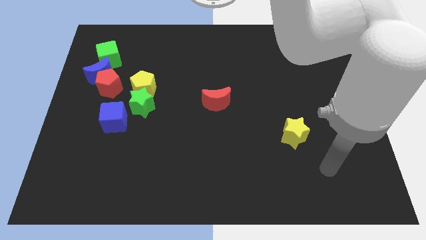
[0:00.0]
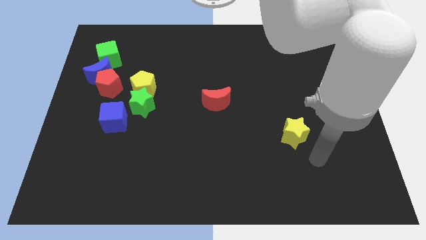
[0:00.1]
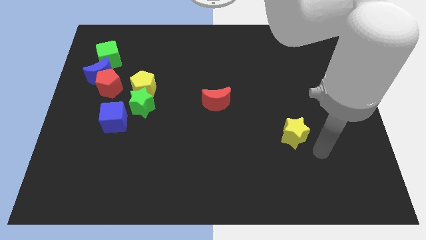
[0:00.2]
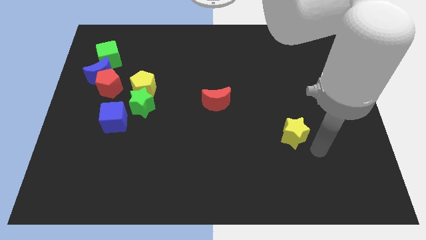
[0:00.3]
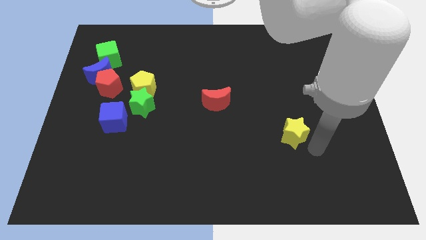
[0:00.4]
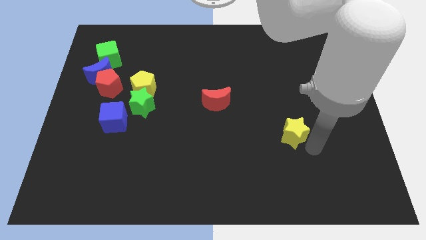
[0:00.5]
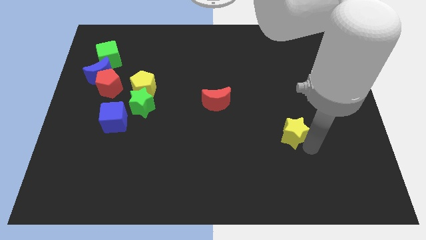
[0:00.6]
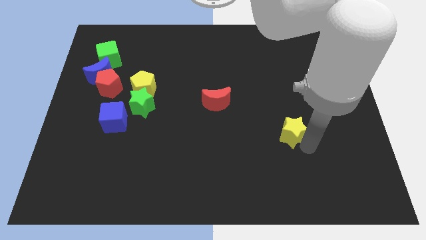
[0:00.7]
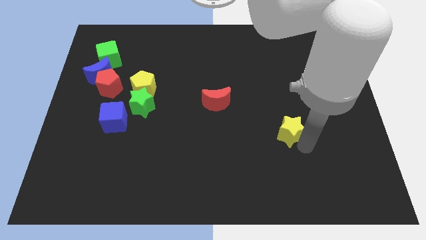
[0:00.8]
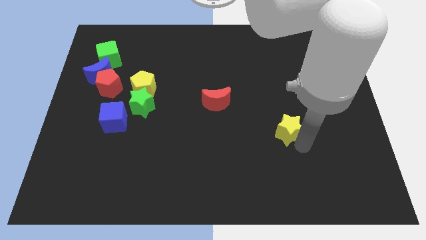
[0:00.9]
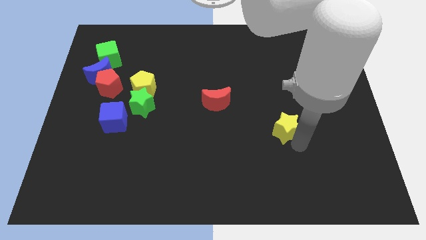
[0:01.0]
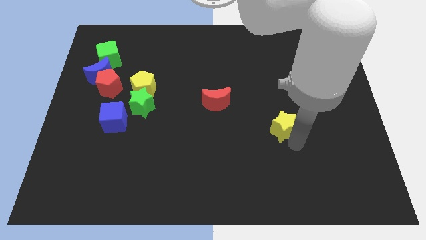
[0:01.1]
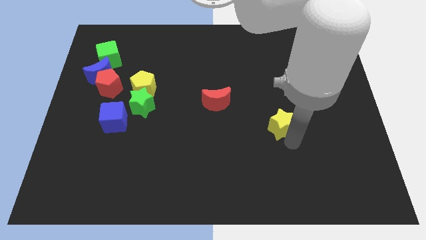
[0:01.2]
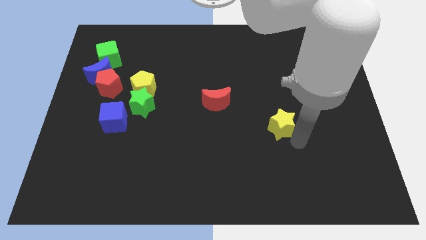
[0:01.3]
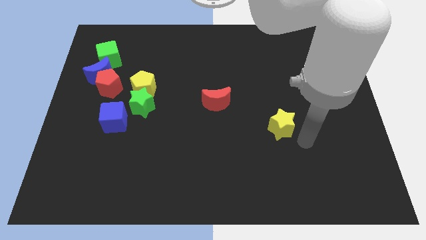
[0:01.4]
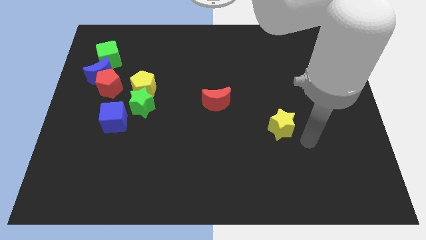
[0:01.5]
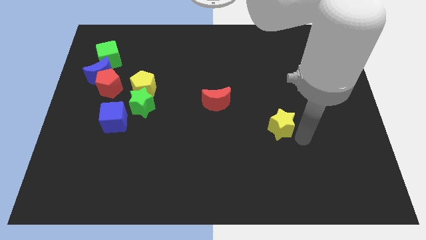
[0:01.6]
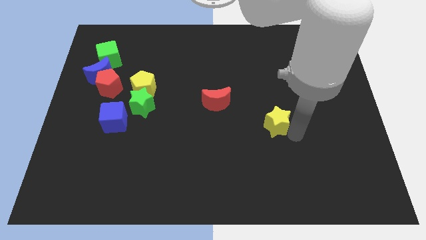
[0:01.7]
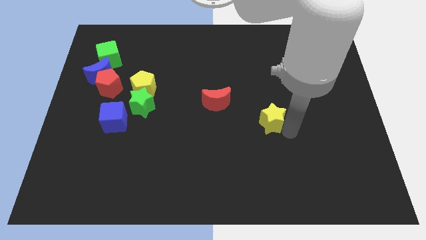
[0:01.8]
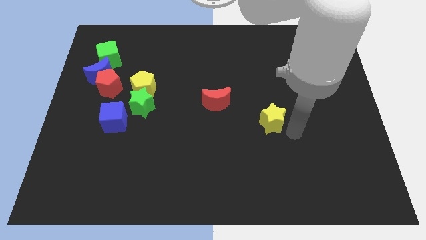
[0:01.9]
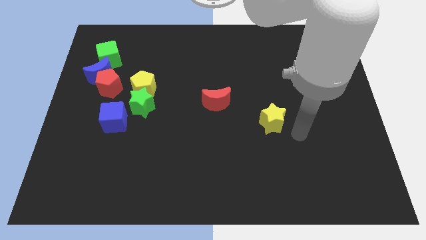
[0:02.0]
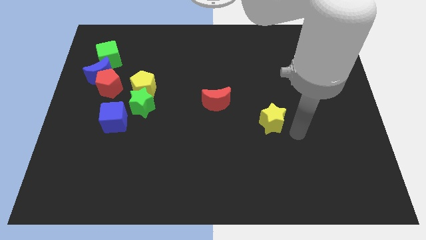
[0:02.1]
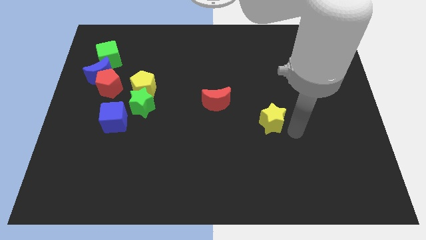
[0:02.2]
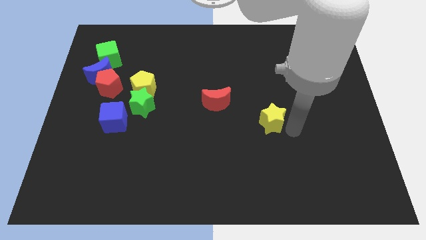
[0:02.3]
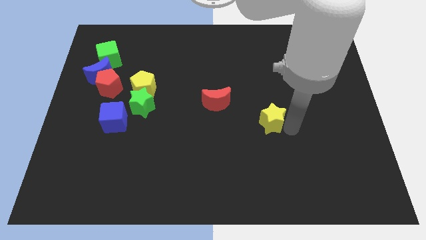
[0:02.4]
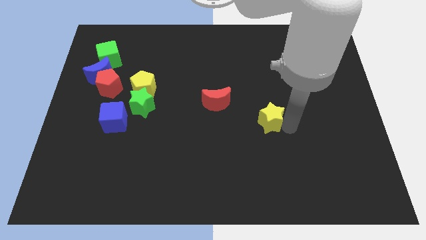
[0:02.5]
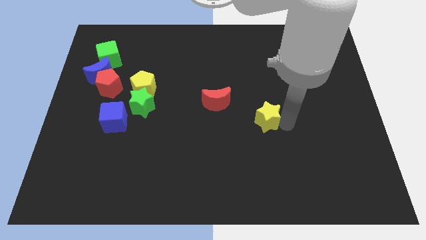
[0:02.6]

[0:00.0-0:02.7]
move the yellow star a little upwards and to the left diagonally

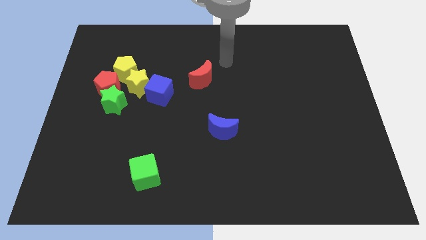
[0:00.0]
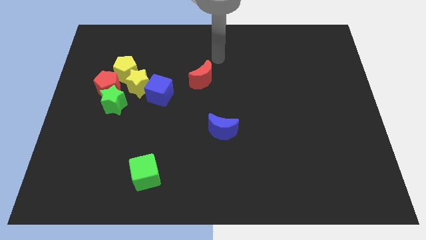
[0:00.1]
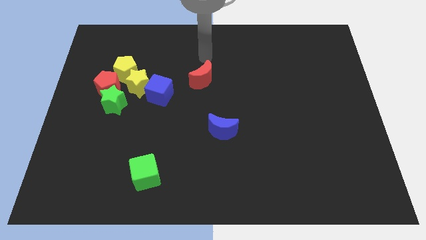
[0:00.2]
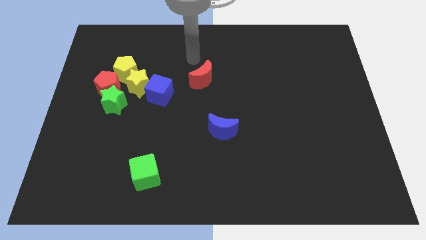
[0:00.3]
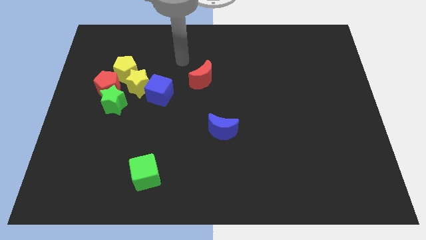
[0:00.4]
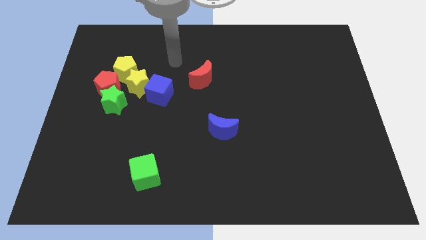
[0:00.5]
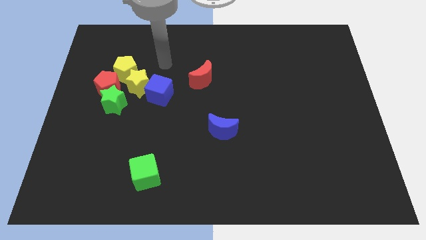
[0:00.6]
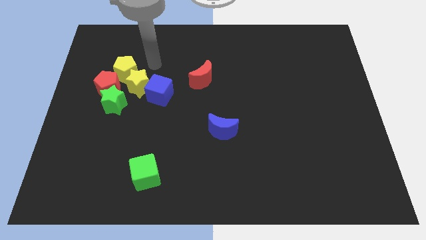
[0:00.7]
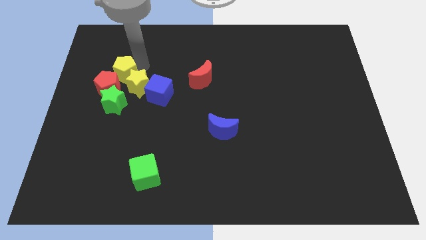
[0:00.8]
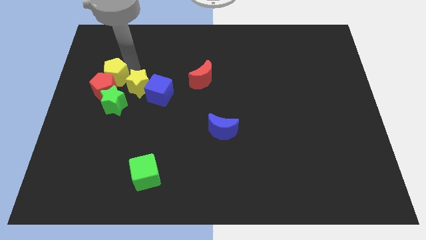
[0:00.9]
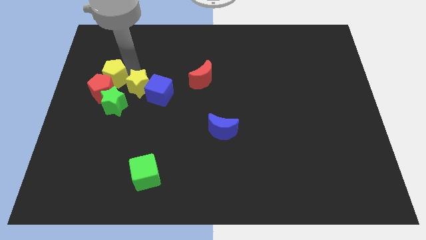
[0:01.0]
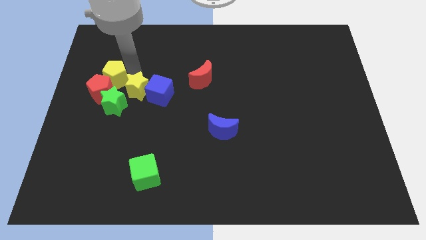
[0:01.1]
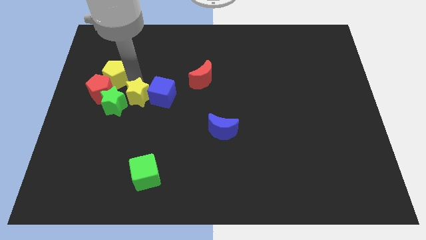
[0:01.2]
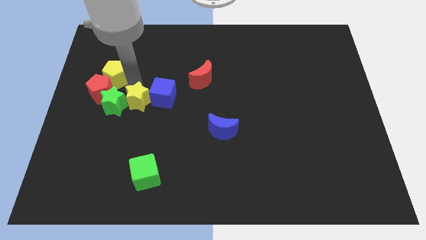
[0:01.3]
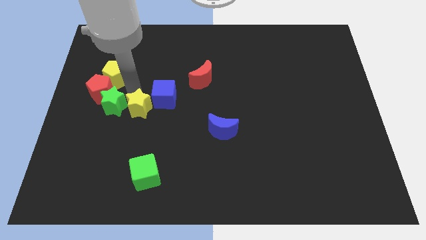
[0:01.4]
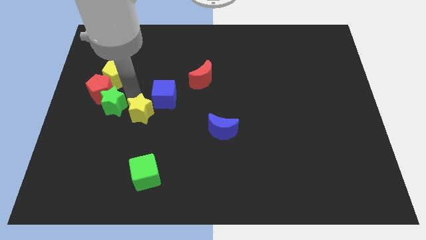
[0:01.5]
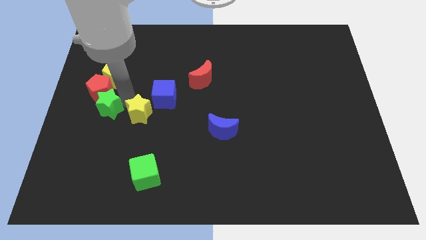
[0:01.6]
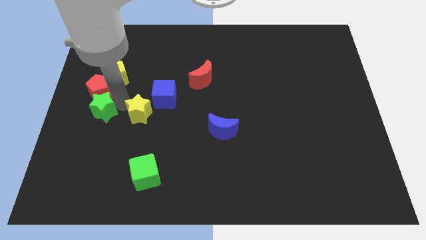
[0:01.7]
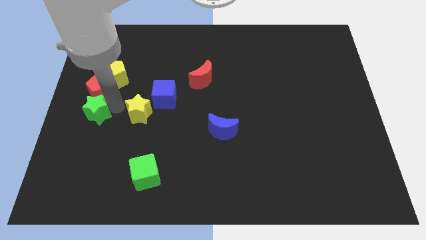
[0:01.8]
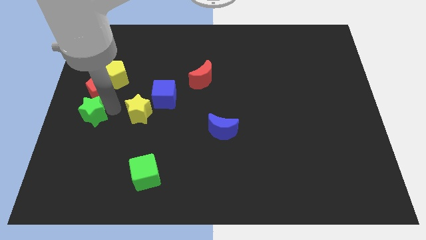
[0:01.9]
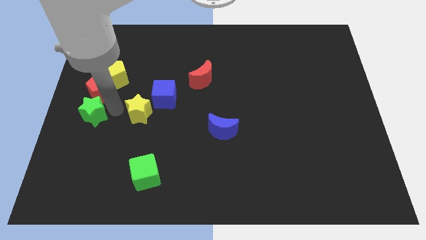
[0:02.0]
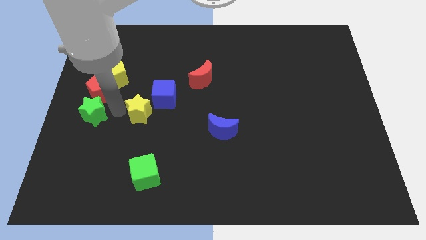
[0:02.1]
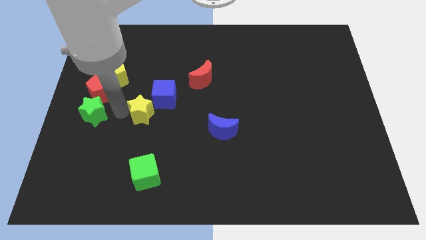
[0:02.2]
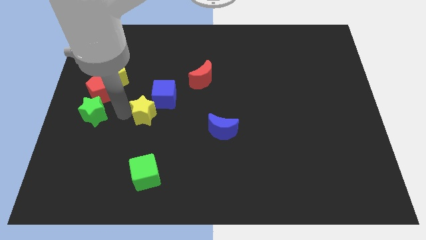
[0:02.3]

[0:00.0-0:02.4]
slightly move the yellow star downwards and right diagonally

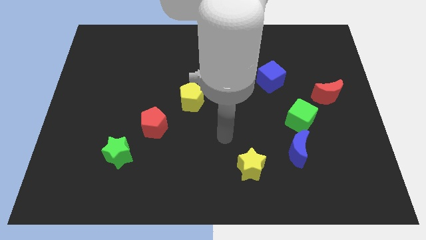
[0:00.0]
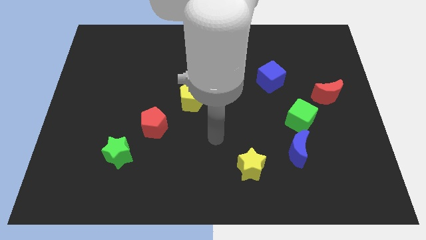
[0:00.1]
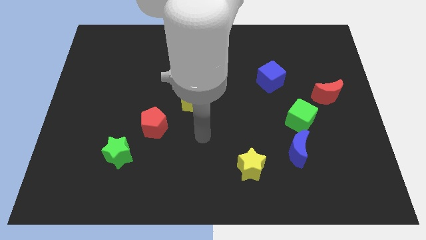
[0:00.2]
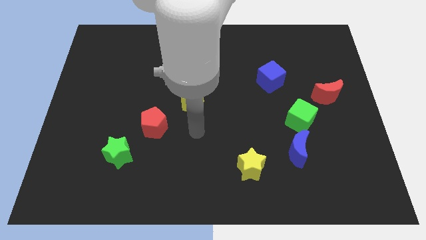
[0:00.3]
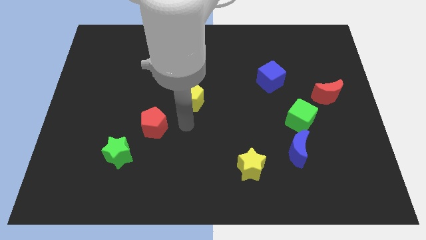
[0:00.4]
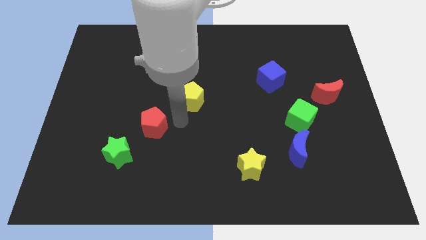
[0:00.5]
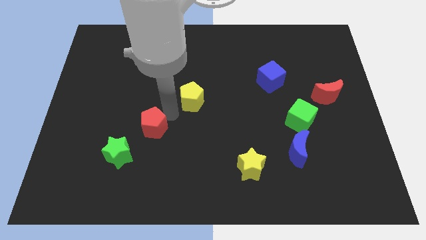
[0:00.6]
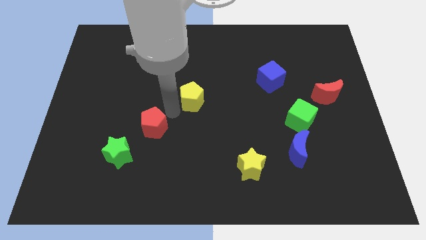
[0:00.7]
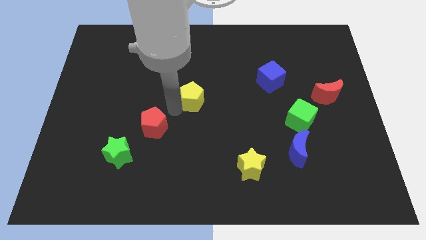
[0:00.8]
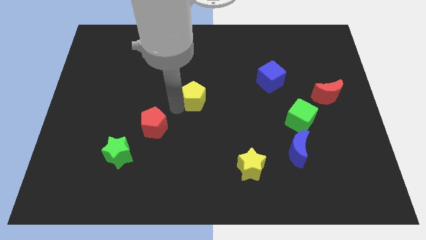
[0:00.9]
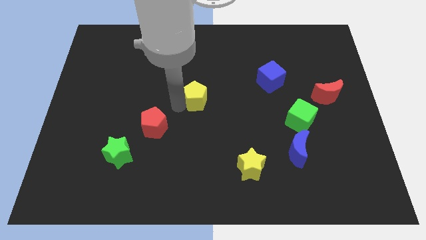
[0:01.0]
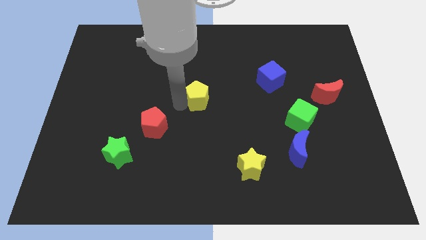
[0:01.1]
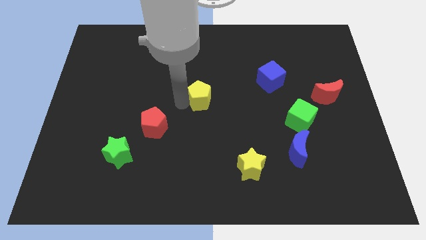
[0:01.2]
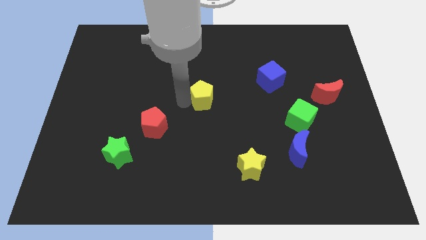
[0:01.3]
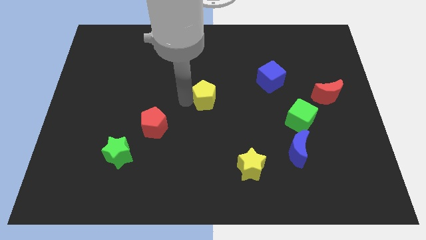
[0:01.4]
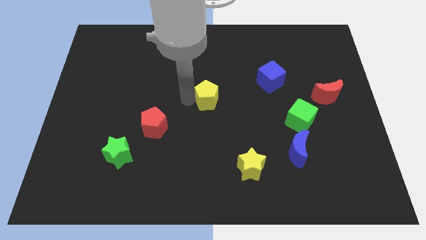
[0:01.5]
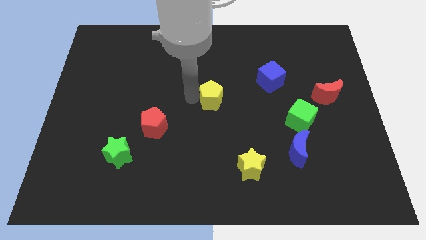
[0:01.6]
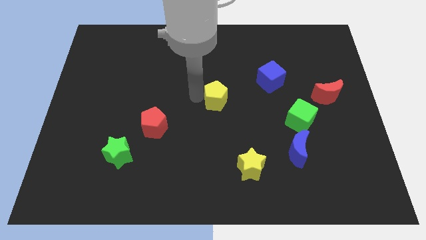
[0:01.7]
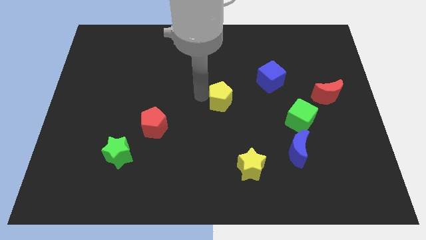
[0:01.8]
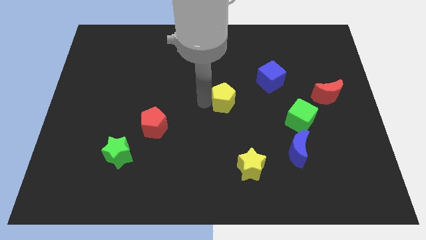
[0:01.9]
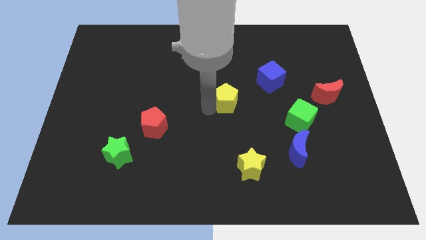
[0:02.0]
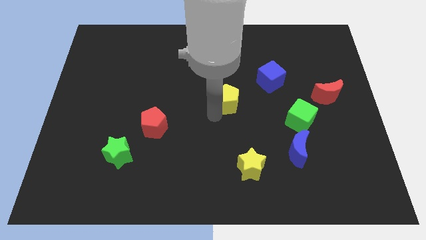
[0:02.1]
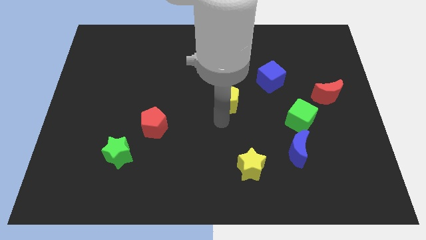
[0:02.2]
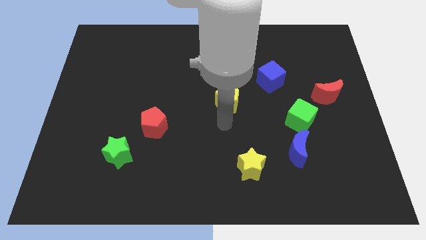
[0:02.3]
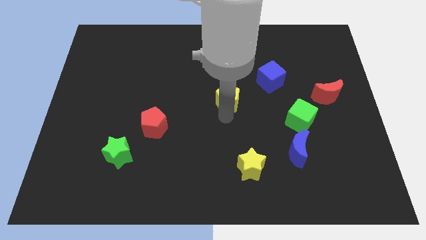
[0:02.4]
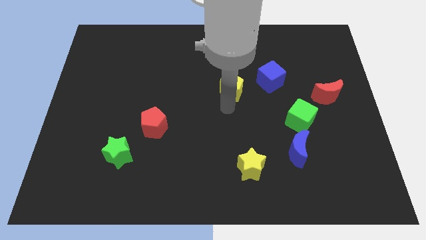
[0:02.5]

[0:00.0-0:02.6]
move the yellow pentagon slightly up and to the right

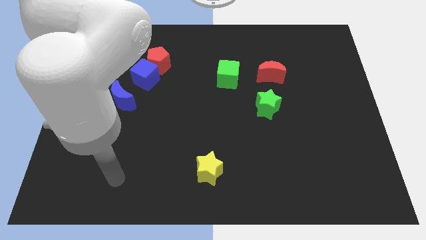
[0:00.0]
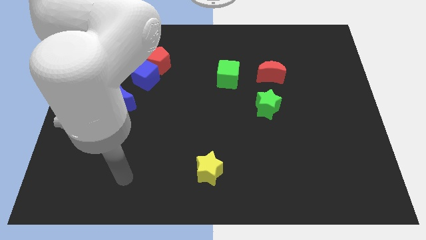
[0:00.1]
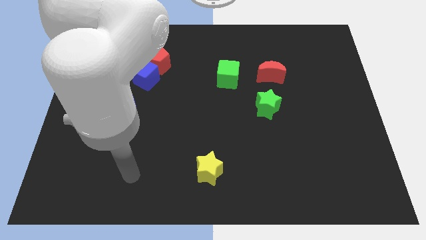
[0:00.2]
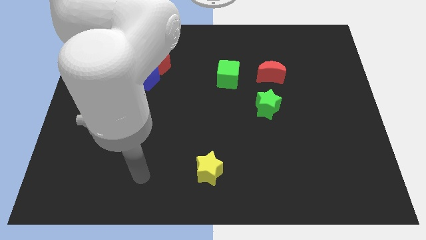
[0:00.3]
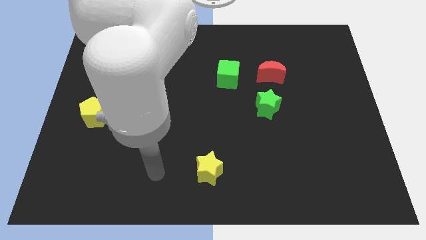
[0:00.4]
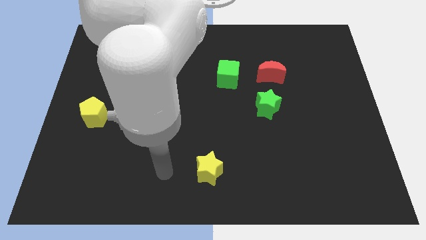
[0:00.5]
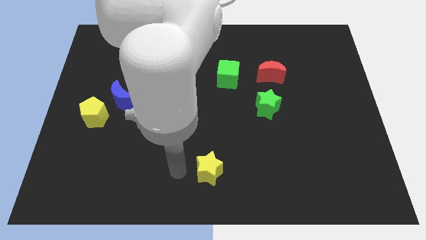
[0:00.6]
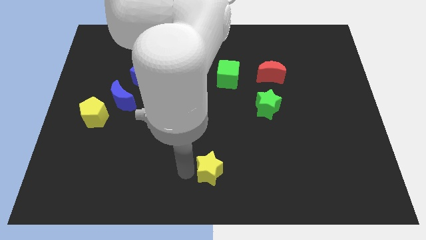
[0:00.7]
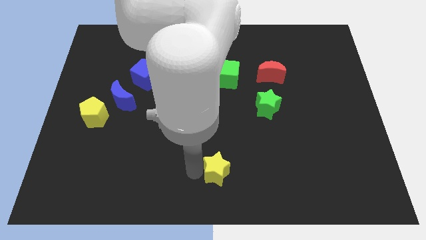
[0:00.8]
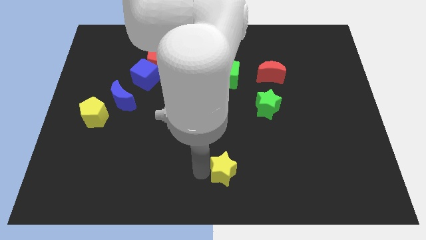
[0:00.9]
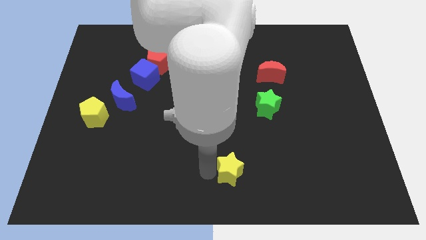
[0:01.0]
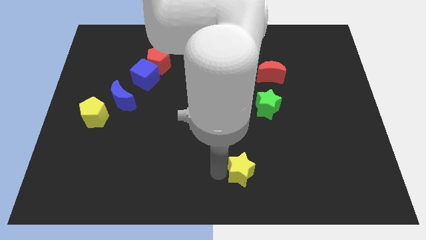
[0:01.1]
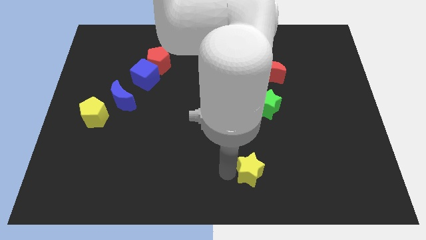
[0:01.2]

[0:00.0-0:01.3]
slightly slide the yellow star to the right
